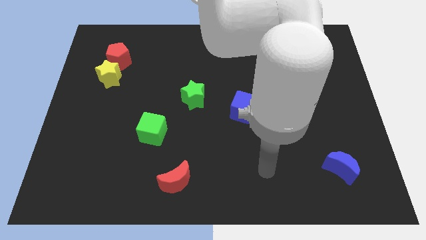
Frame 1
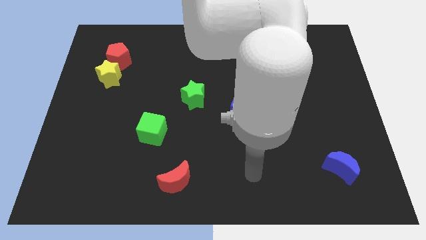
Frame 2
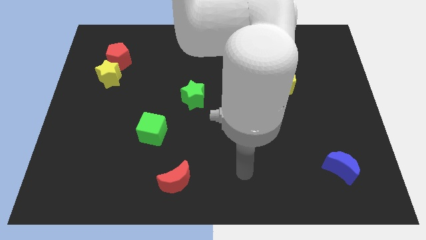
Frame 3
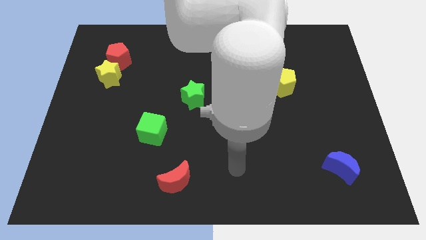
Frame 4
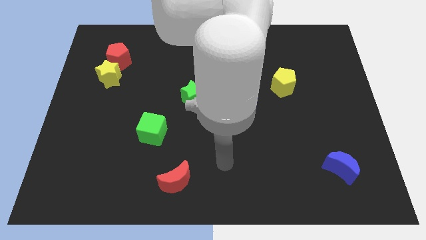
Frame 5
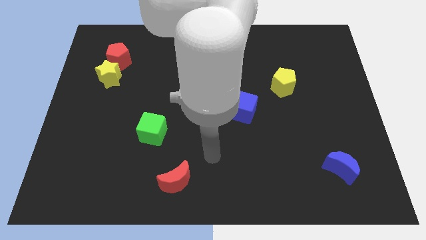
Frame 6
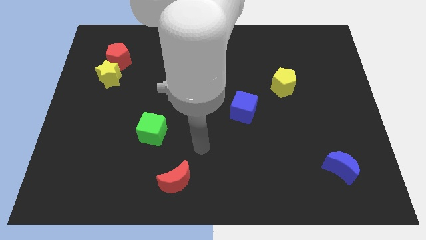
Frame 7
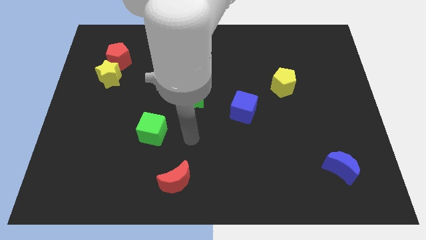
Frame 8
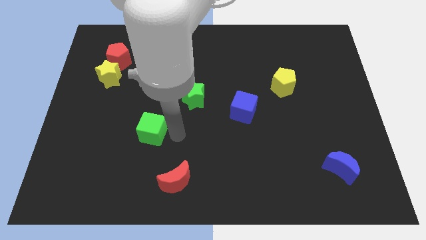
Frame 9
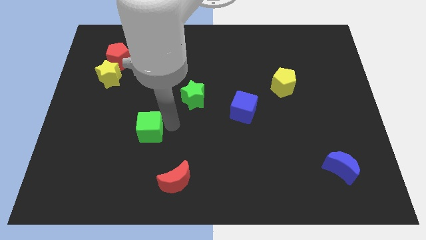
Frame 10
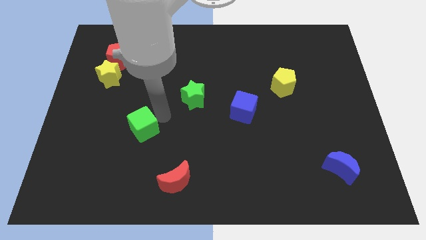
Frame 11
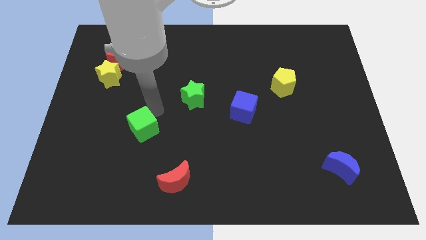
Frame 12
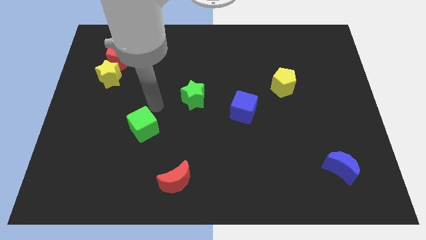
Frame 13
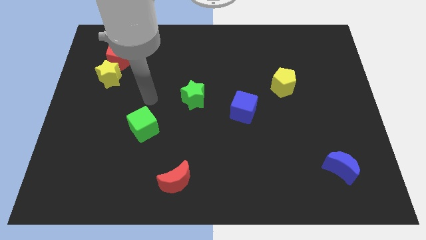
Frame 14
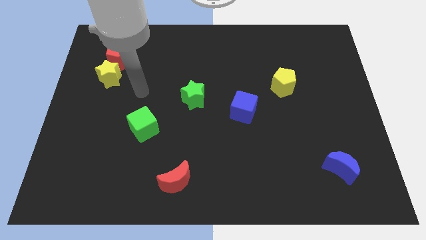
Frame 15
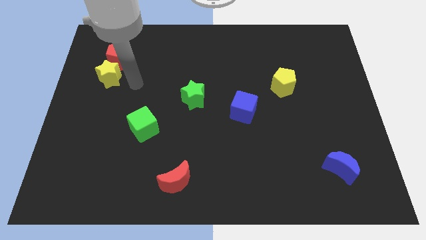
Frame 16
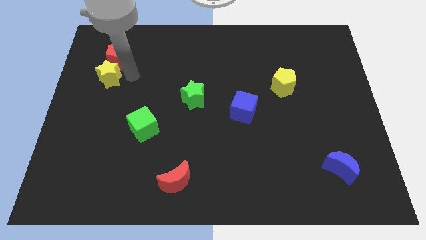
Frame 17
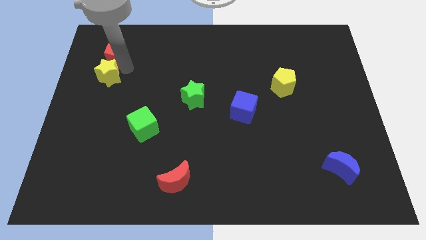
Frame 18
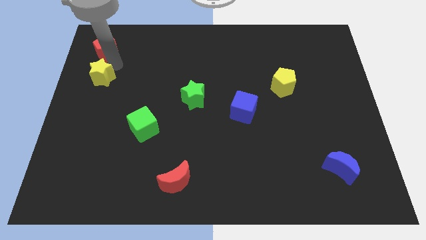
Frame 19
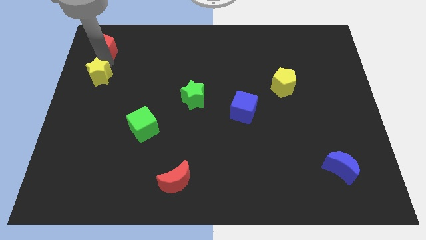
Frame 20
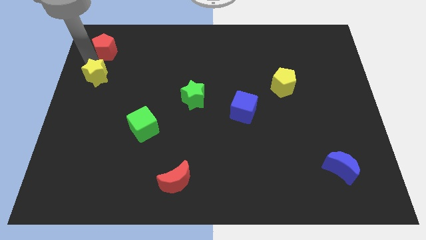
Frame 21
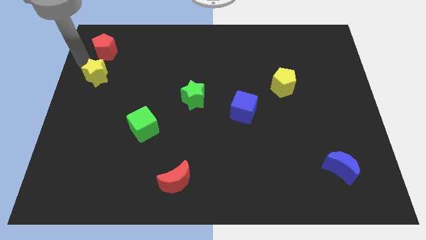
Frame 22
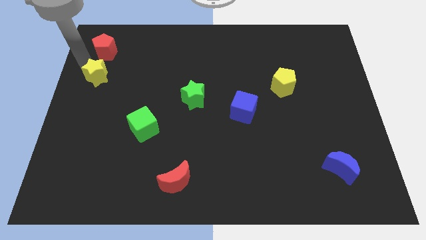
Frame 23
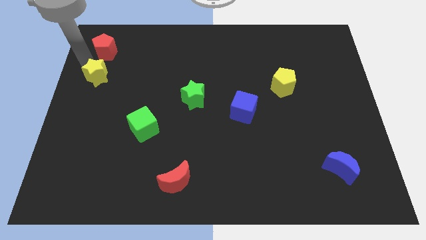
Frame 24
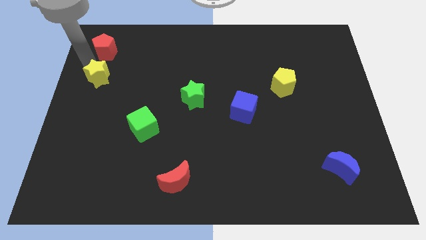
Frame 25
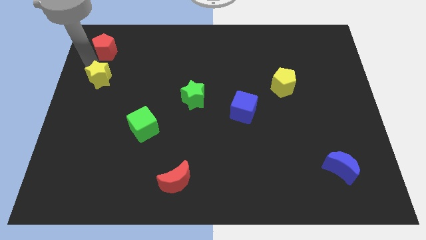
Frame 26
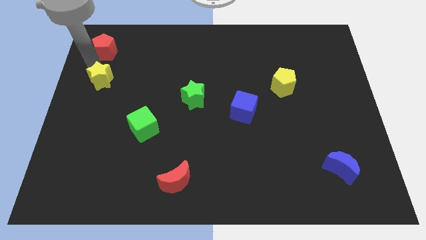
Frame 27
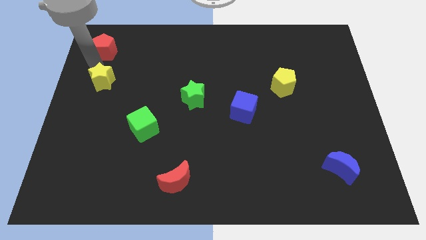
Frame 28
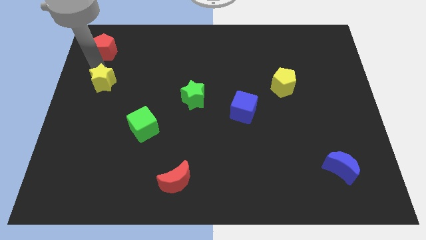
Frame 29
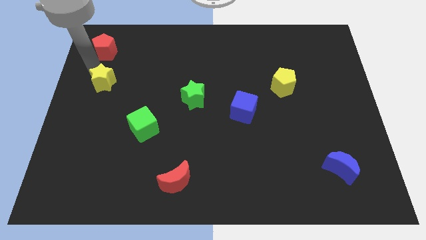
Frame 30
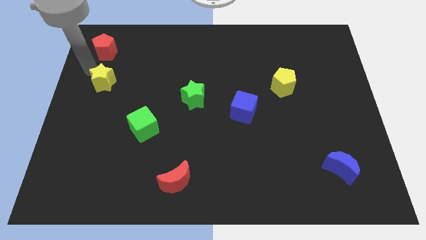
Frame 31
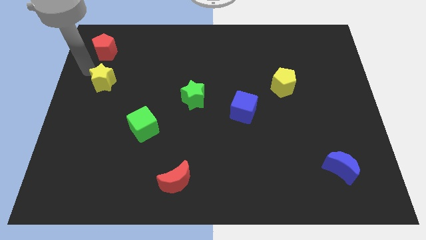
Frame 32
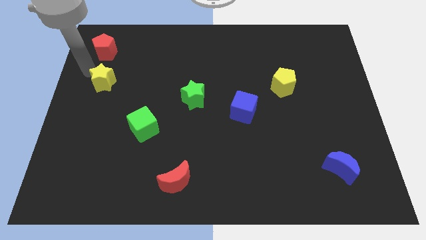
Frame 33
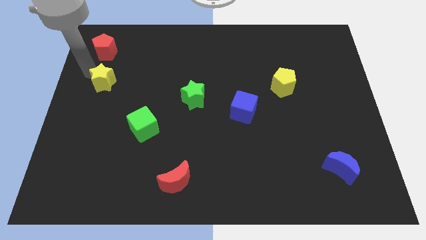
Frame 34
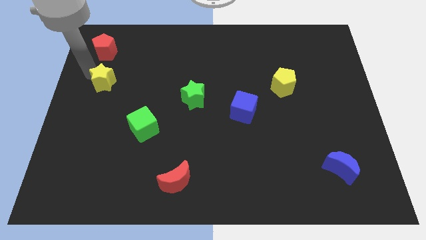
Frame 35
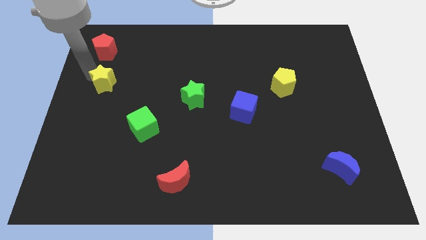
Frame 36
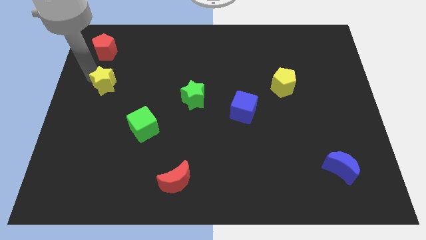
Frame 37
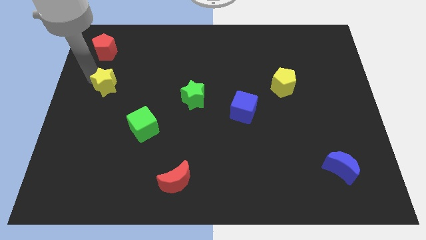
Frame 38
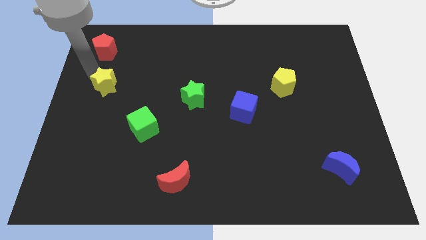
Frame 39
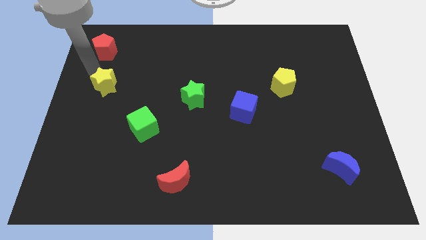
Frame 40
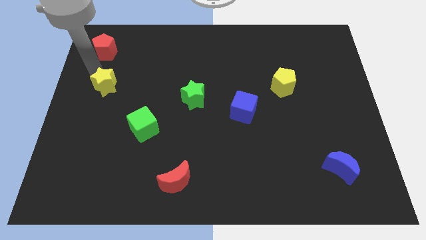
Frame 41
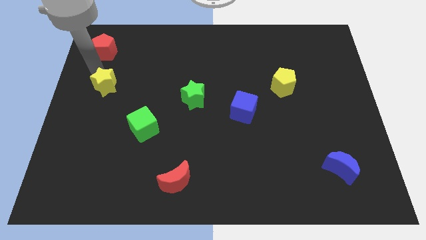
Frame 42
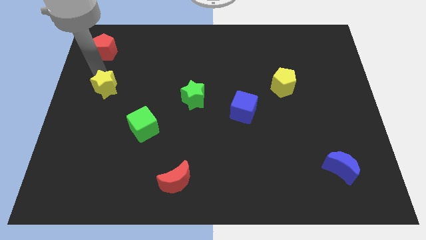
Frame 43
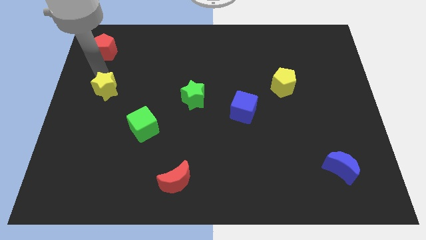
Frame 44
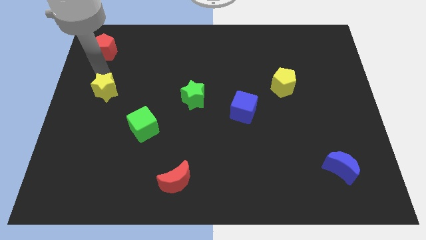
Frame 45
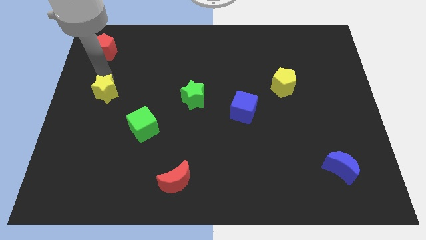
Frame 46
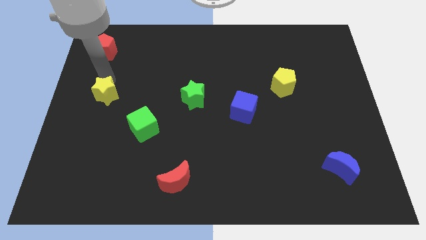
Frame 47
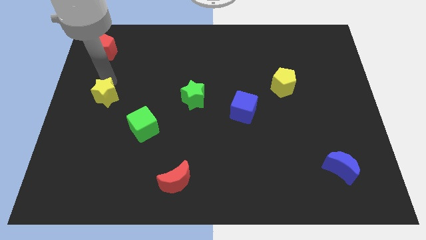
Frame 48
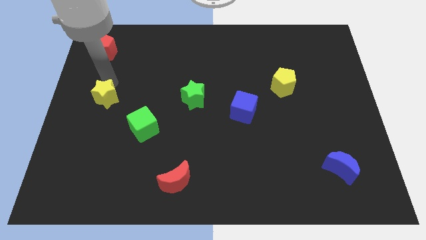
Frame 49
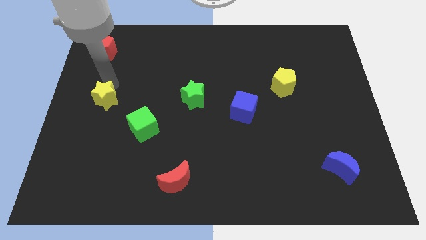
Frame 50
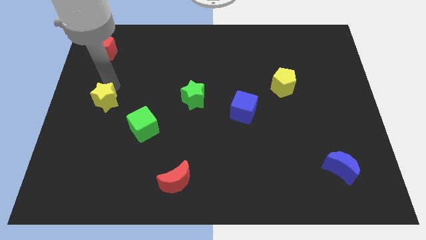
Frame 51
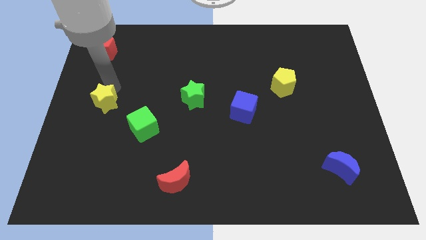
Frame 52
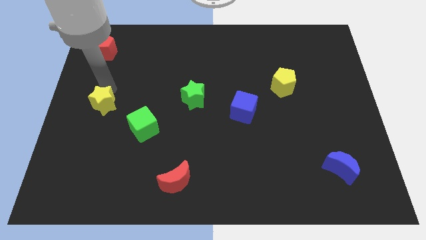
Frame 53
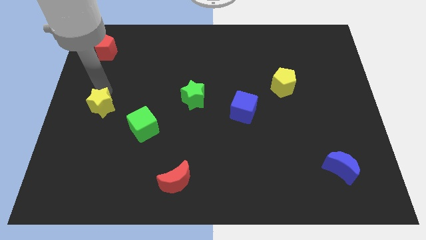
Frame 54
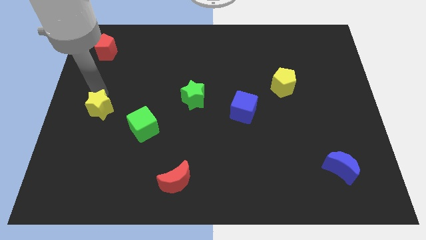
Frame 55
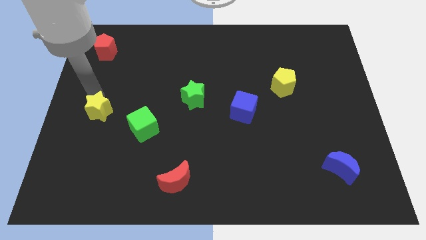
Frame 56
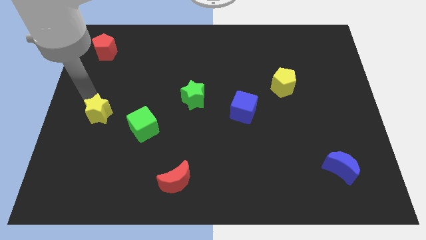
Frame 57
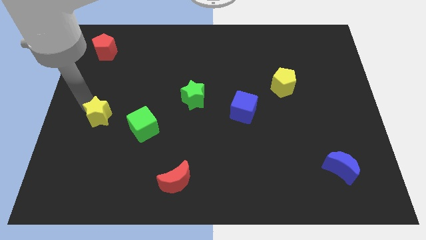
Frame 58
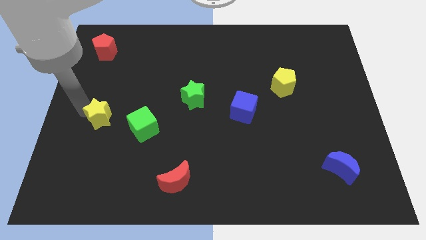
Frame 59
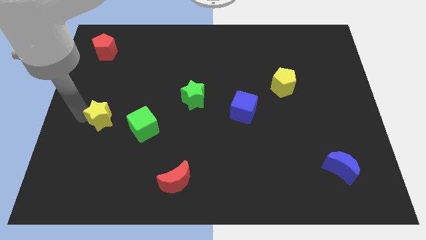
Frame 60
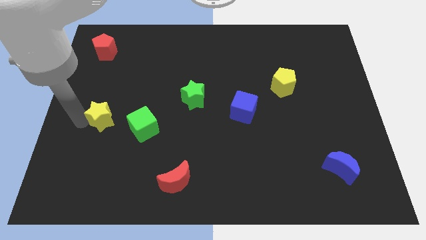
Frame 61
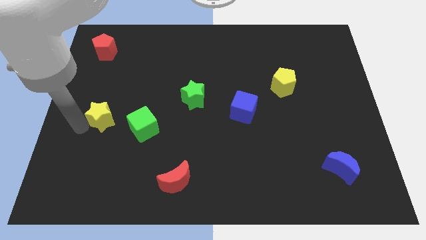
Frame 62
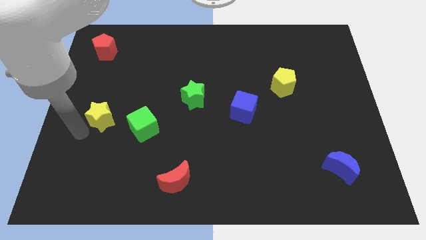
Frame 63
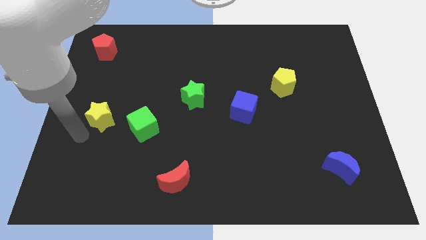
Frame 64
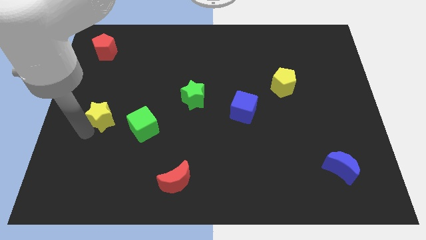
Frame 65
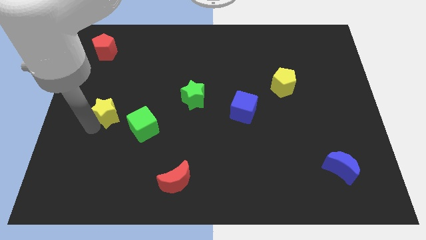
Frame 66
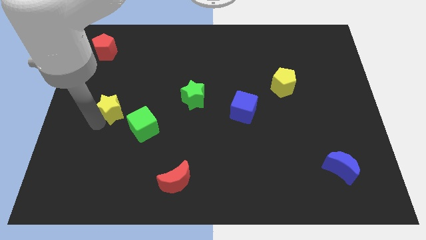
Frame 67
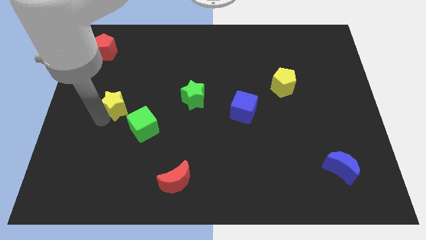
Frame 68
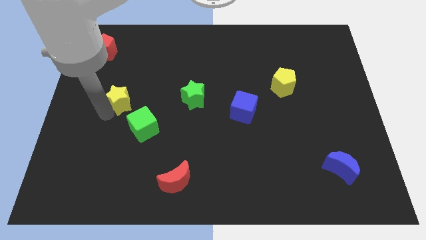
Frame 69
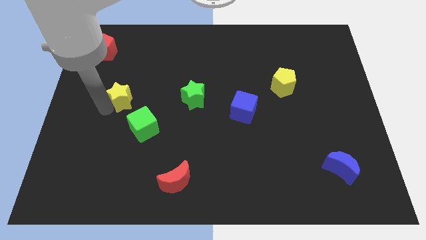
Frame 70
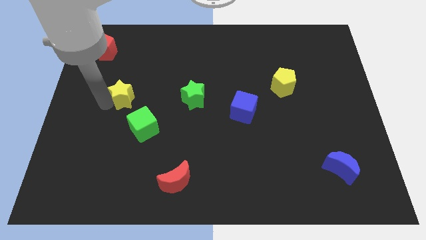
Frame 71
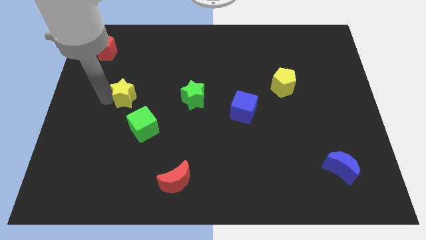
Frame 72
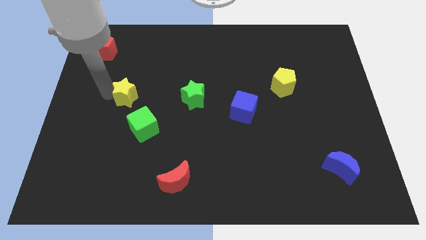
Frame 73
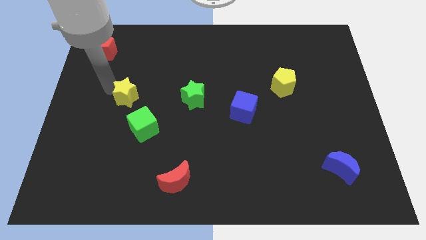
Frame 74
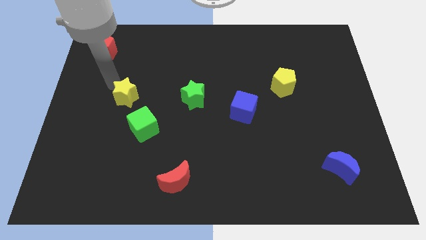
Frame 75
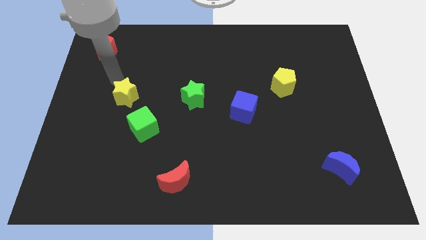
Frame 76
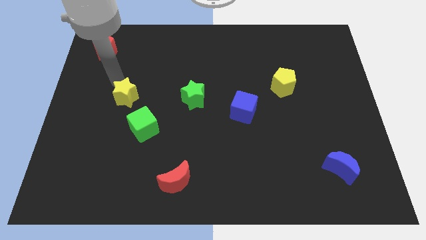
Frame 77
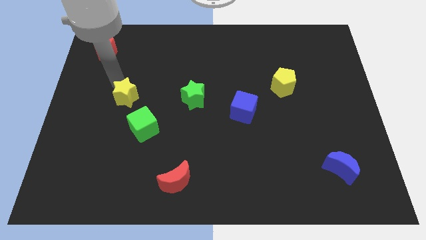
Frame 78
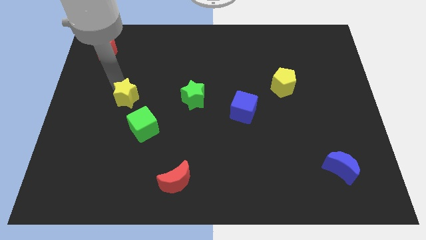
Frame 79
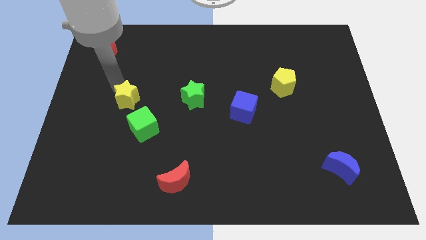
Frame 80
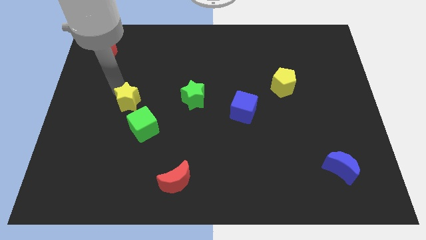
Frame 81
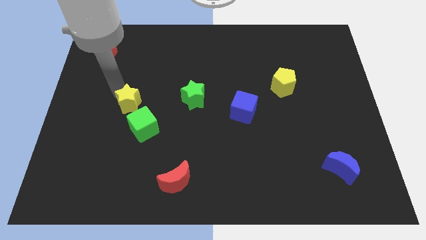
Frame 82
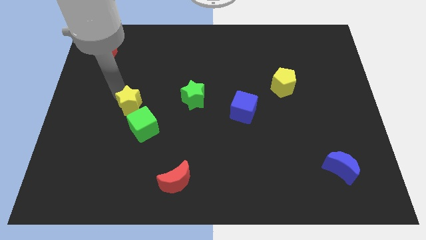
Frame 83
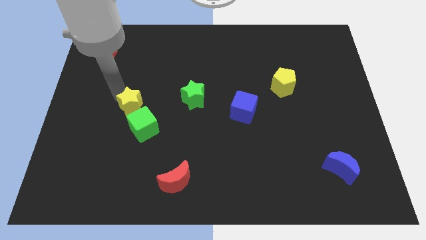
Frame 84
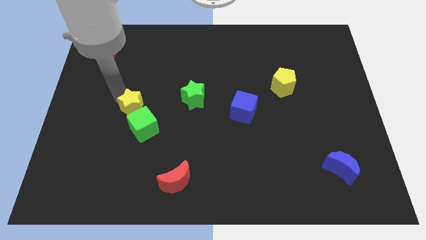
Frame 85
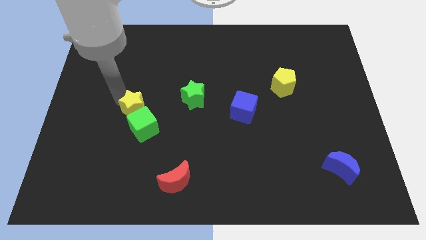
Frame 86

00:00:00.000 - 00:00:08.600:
slide the yellow star towards the green cube
